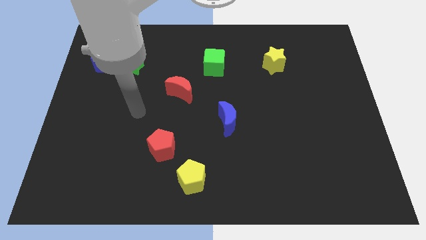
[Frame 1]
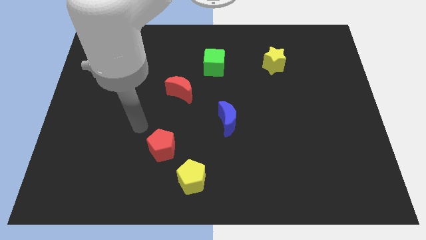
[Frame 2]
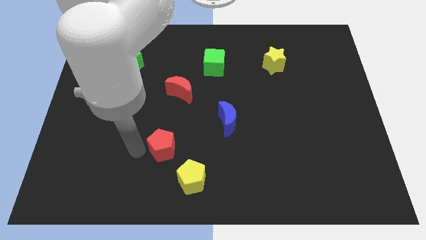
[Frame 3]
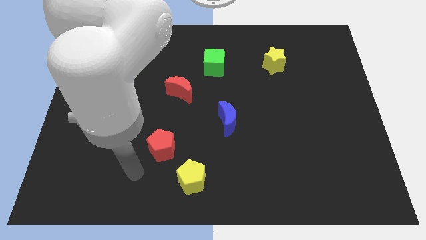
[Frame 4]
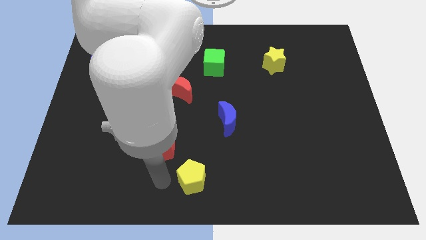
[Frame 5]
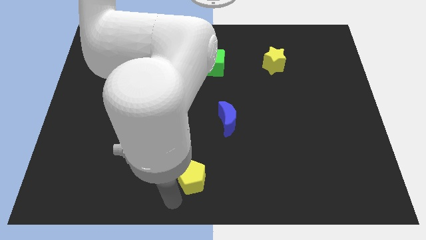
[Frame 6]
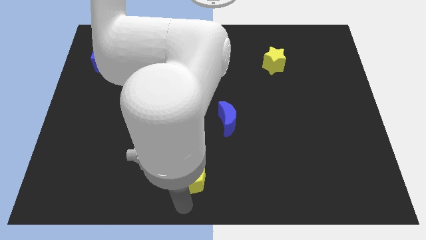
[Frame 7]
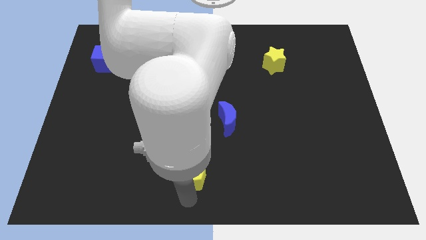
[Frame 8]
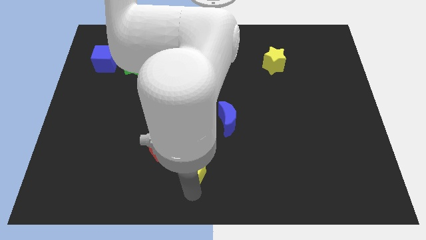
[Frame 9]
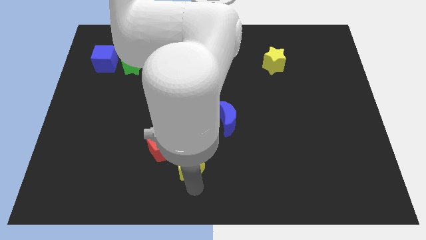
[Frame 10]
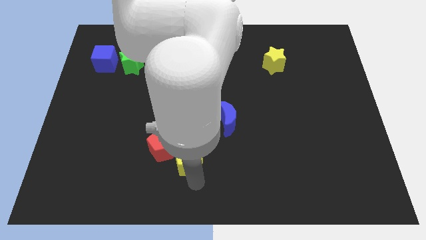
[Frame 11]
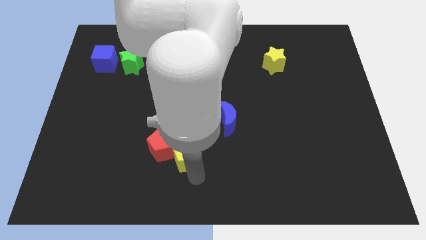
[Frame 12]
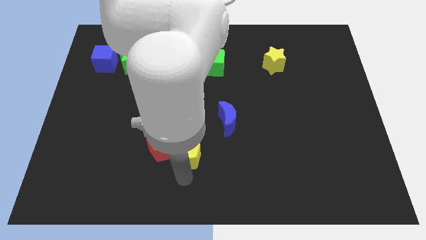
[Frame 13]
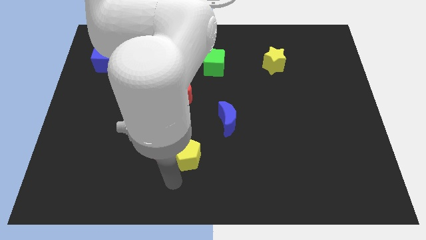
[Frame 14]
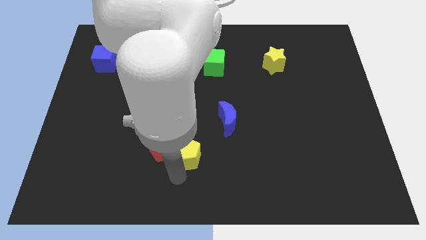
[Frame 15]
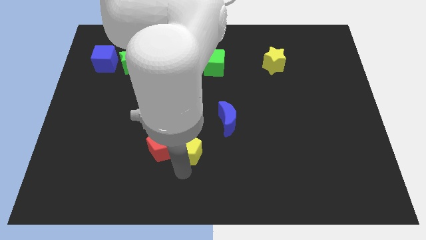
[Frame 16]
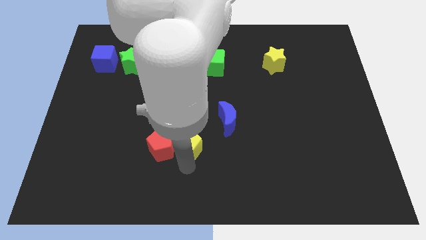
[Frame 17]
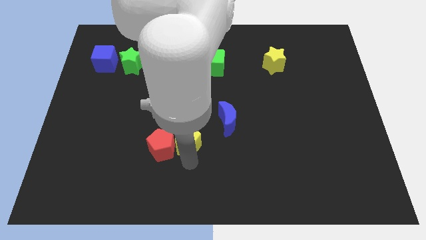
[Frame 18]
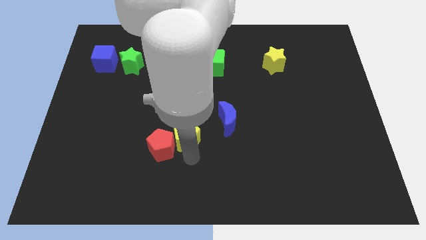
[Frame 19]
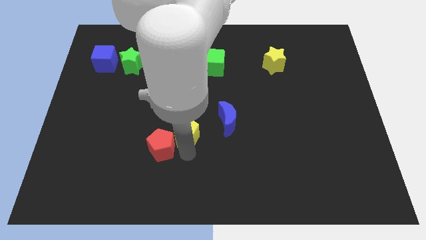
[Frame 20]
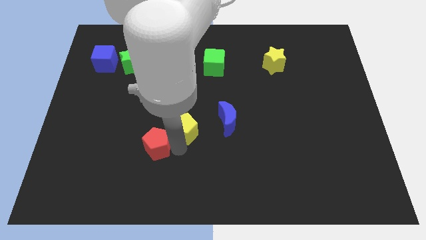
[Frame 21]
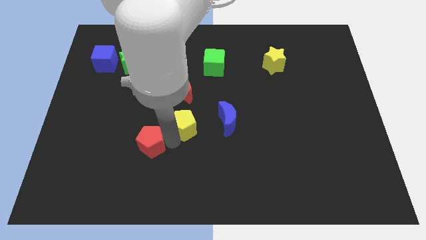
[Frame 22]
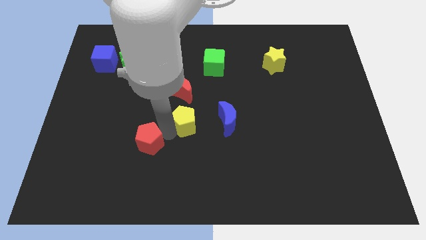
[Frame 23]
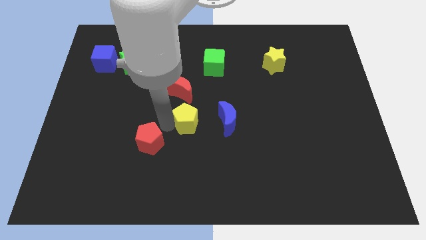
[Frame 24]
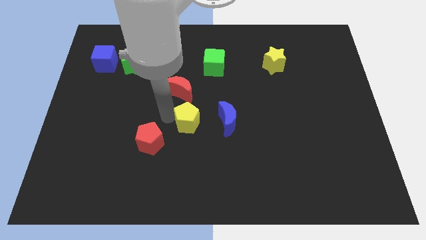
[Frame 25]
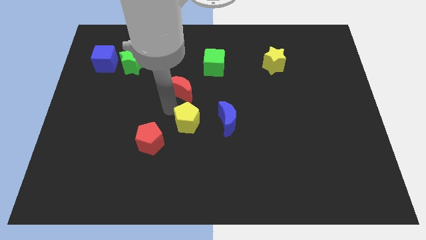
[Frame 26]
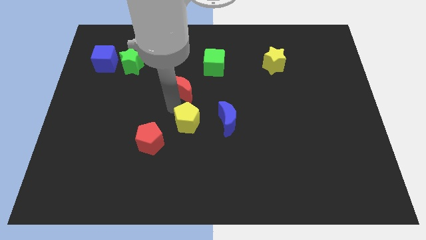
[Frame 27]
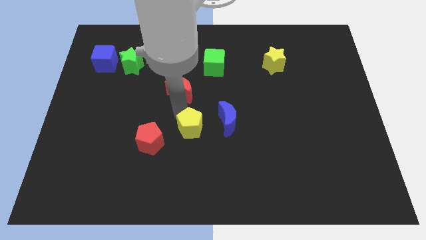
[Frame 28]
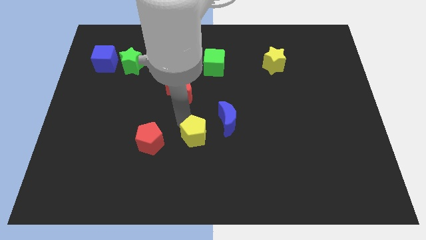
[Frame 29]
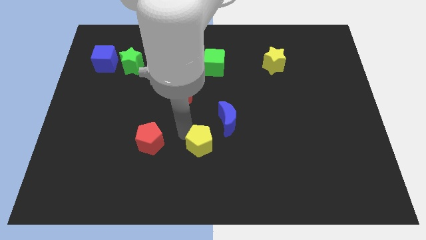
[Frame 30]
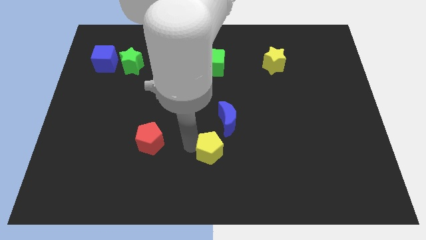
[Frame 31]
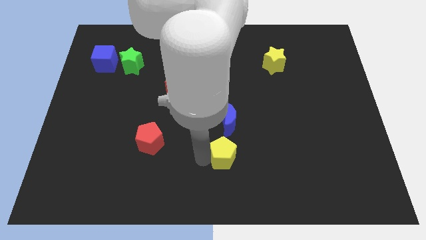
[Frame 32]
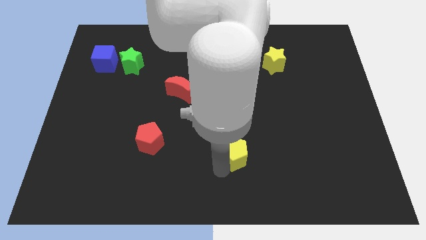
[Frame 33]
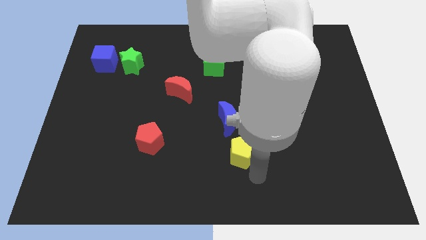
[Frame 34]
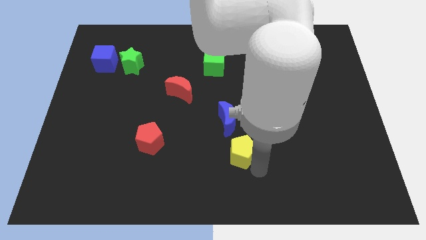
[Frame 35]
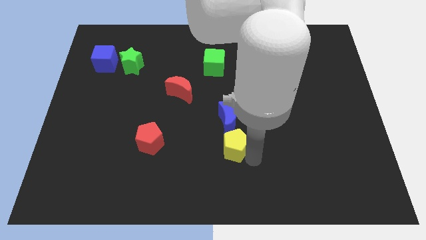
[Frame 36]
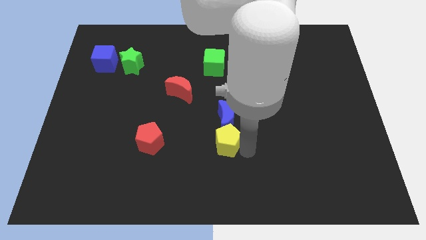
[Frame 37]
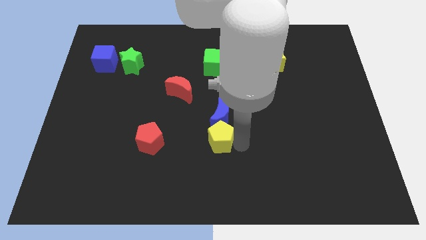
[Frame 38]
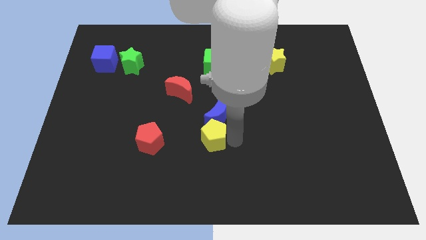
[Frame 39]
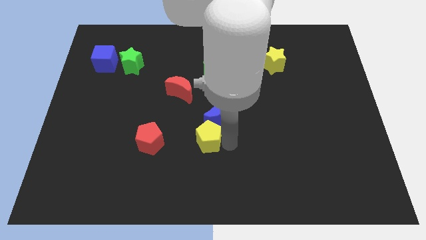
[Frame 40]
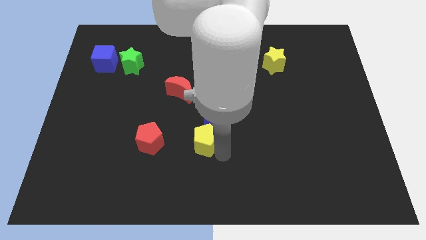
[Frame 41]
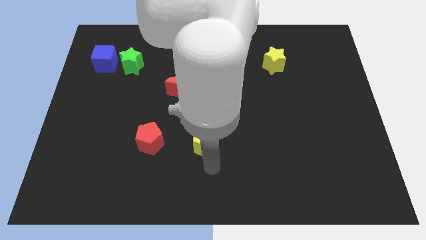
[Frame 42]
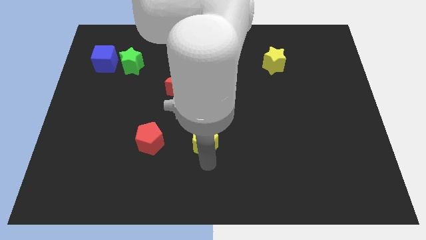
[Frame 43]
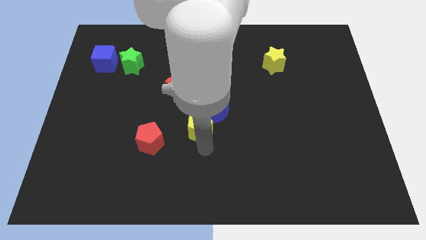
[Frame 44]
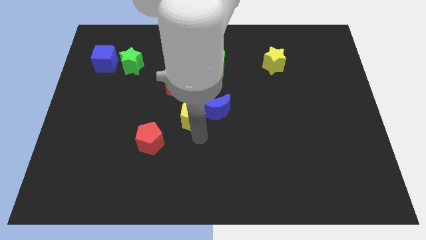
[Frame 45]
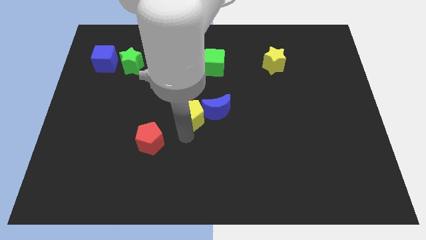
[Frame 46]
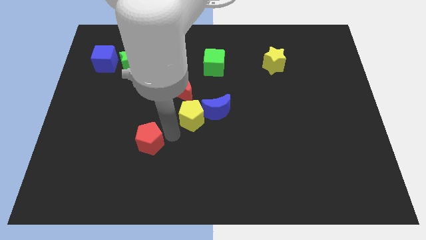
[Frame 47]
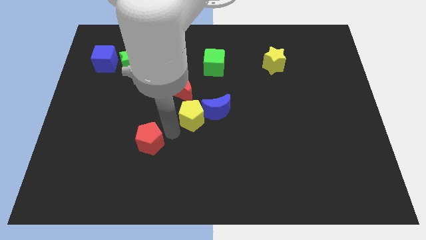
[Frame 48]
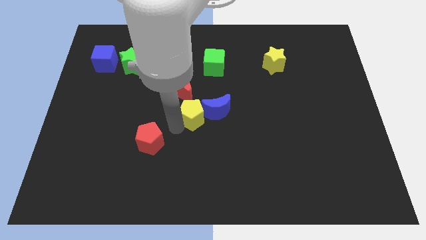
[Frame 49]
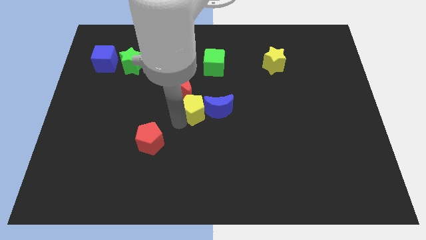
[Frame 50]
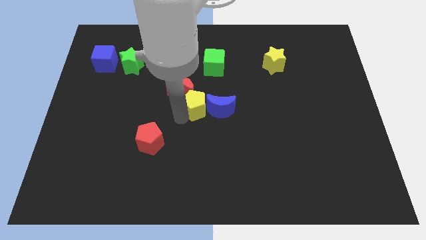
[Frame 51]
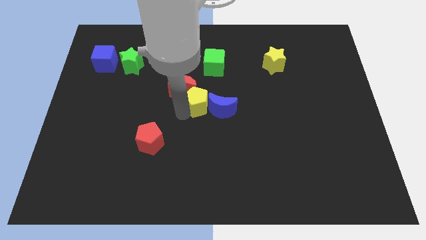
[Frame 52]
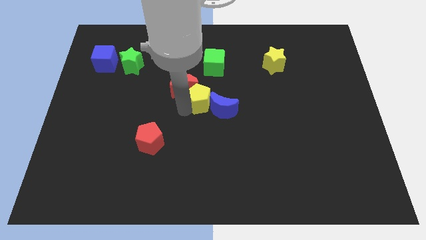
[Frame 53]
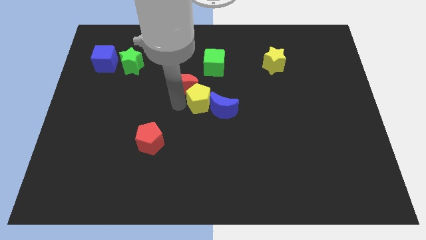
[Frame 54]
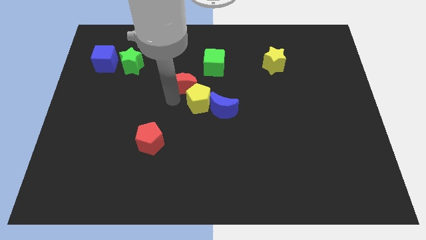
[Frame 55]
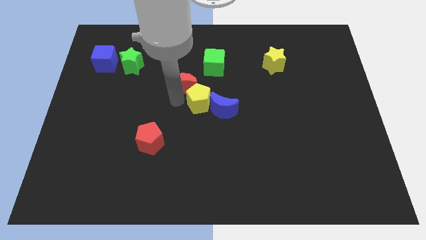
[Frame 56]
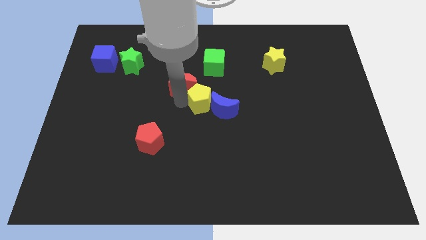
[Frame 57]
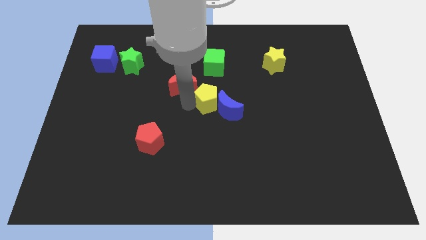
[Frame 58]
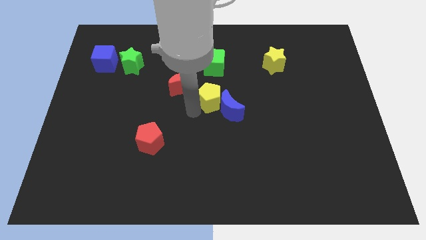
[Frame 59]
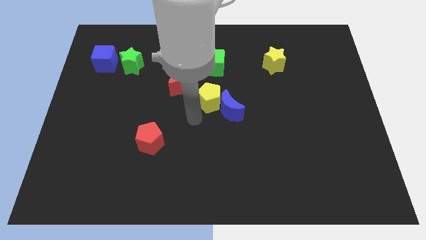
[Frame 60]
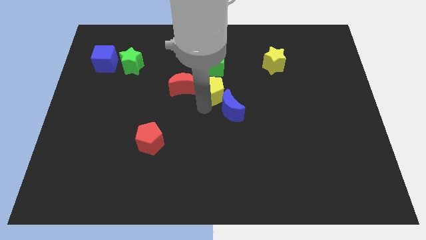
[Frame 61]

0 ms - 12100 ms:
slide the yellow pentagon to the top side of the blue moon
